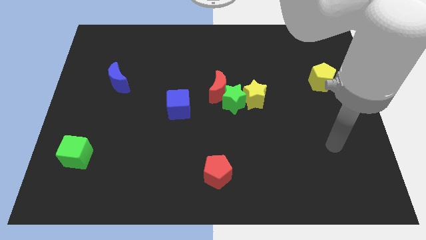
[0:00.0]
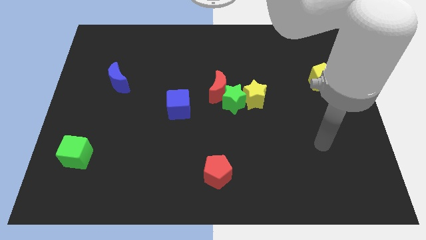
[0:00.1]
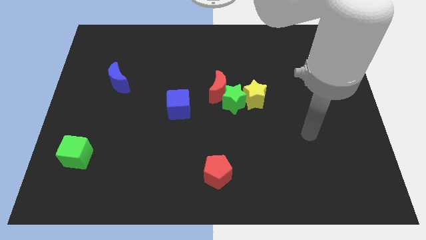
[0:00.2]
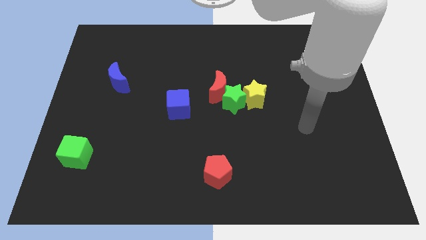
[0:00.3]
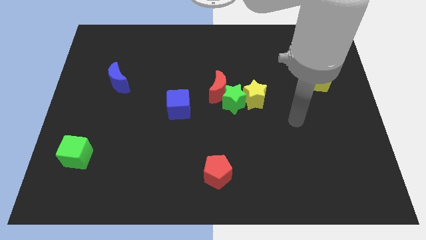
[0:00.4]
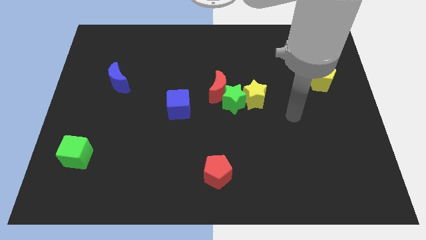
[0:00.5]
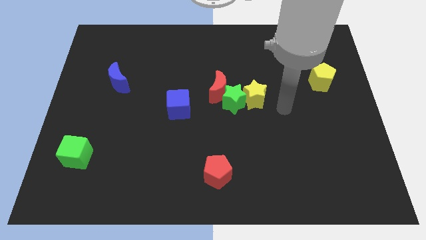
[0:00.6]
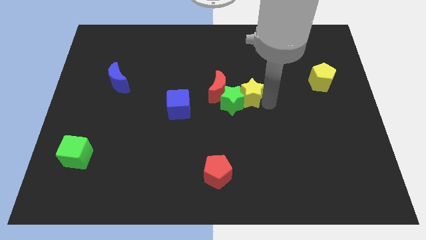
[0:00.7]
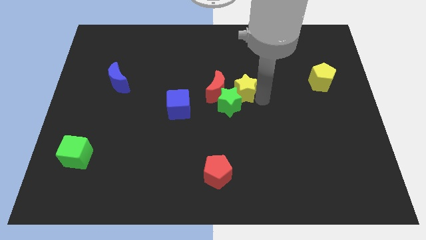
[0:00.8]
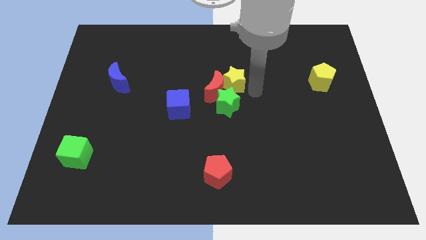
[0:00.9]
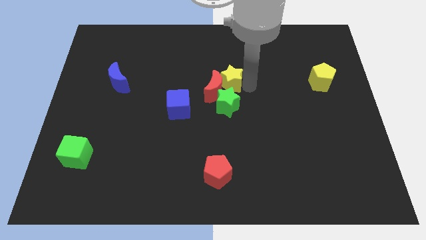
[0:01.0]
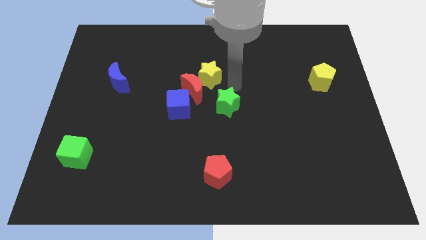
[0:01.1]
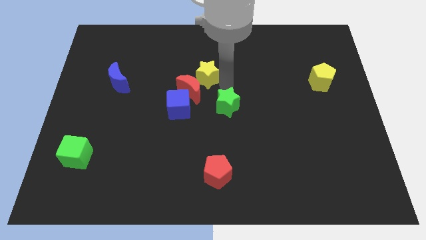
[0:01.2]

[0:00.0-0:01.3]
move the green star away from the yellow star and red moon

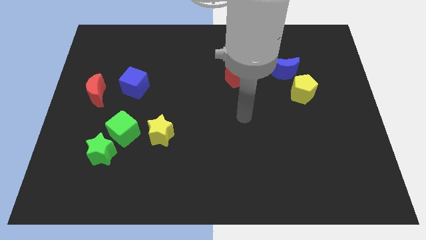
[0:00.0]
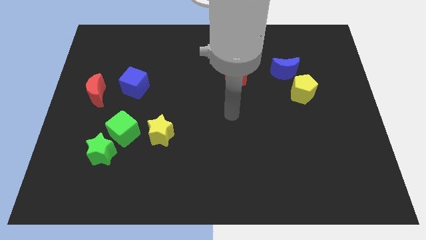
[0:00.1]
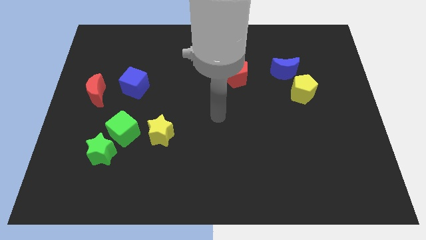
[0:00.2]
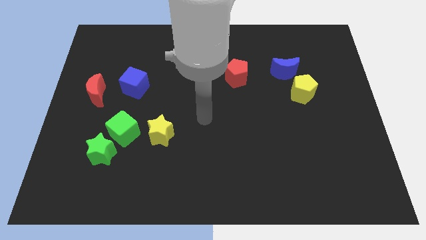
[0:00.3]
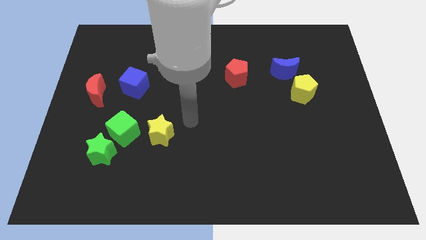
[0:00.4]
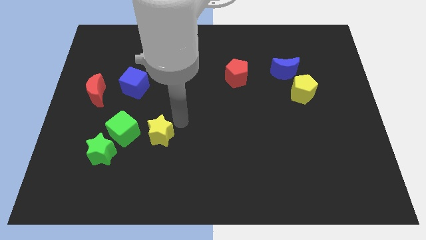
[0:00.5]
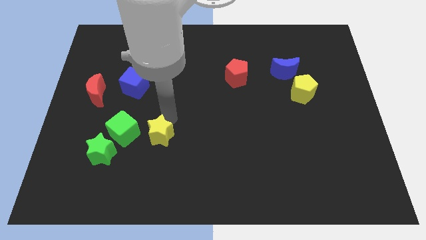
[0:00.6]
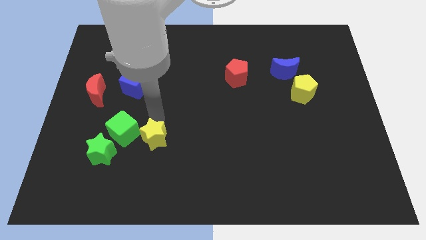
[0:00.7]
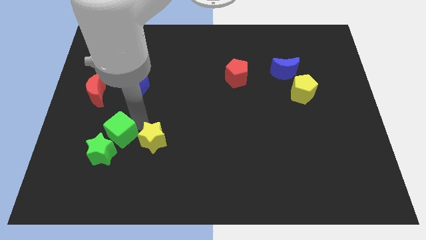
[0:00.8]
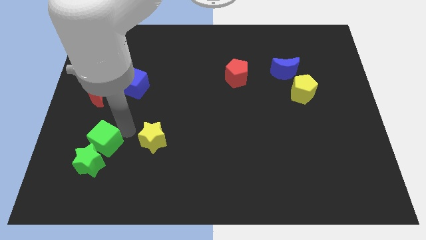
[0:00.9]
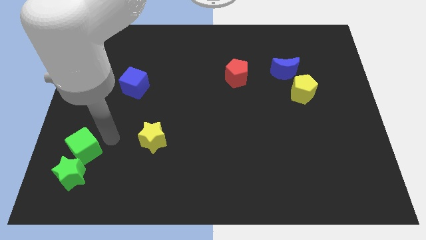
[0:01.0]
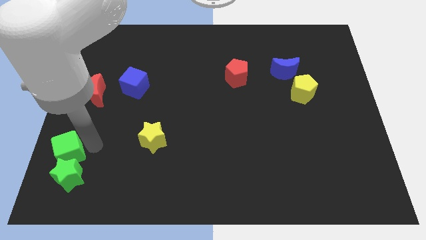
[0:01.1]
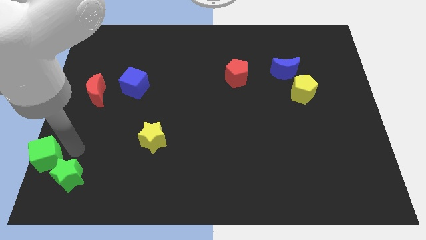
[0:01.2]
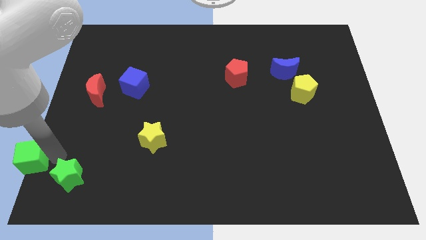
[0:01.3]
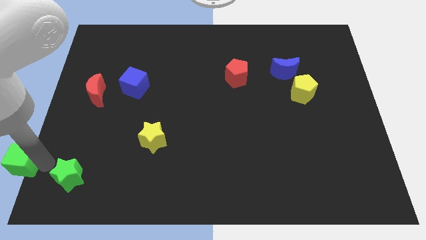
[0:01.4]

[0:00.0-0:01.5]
move the green star away from the green cube

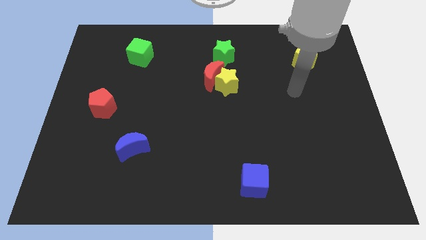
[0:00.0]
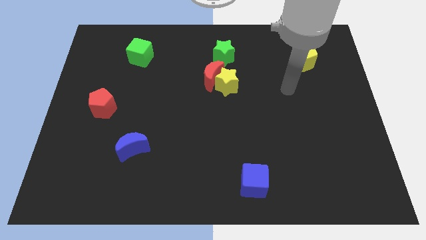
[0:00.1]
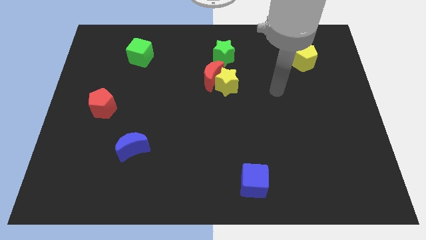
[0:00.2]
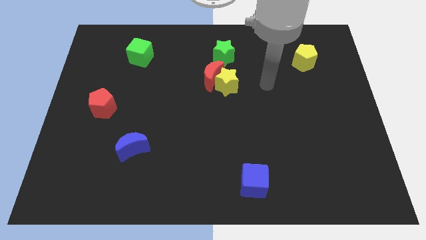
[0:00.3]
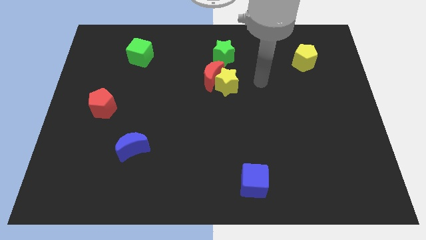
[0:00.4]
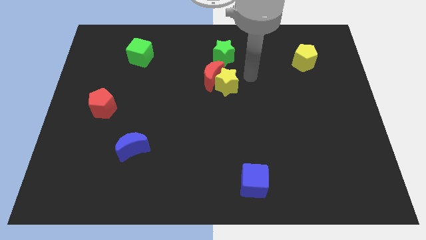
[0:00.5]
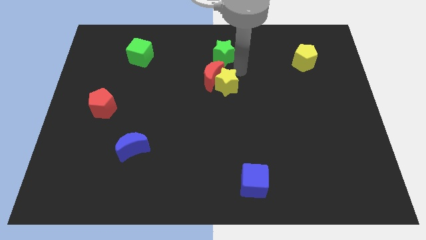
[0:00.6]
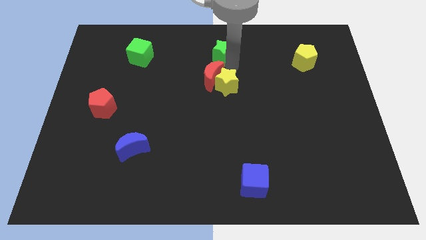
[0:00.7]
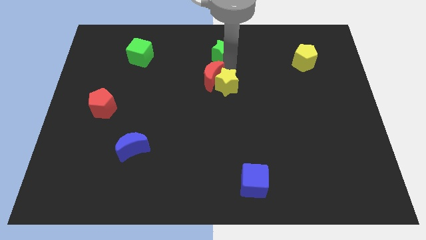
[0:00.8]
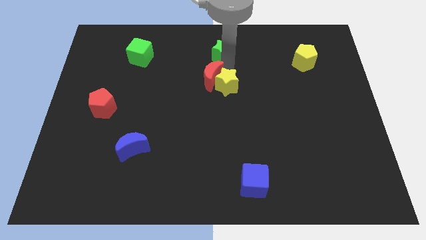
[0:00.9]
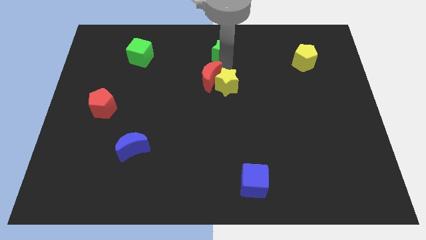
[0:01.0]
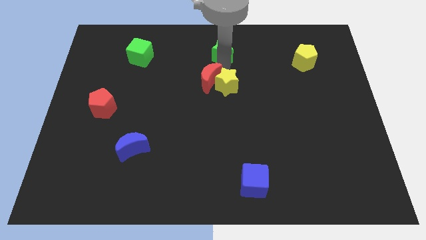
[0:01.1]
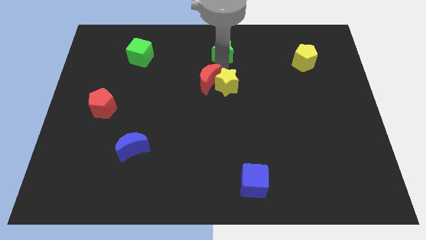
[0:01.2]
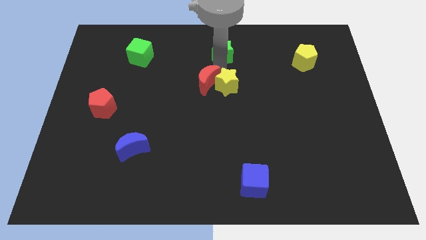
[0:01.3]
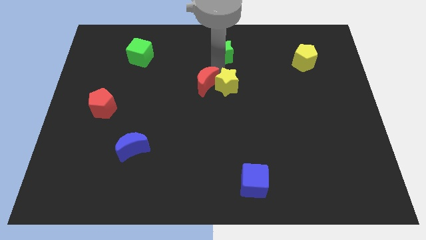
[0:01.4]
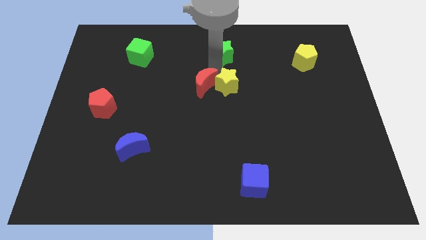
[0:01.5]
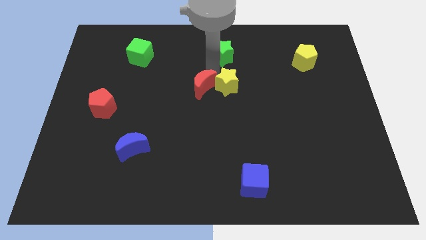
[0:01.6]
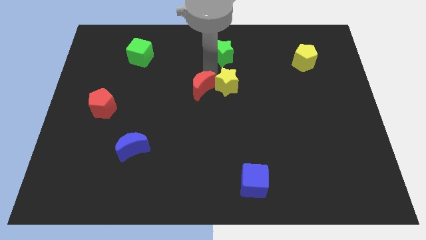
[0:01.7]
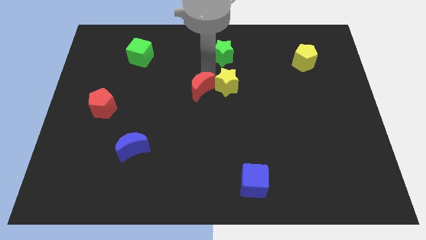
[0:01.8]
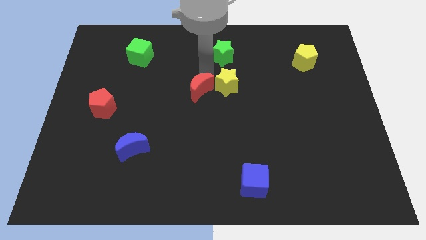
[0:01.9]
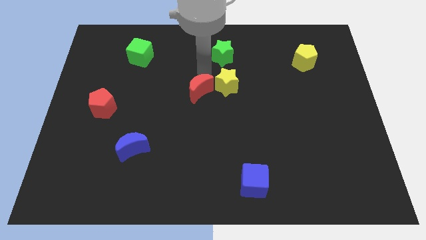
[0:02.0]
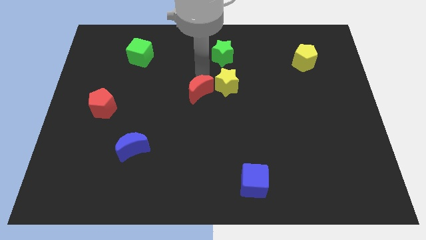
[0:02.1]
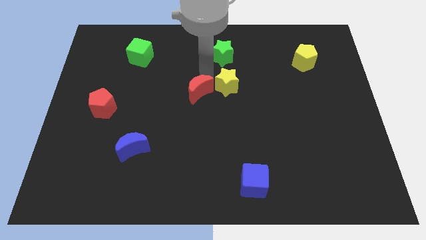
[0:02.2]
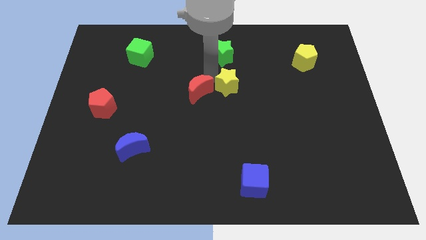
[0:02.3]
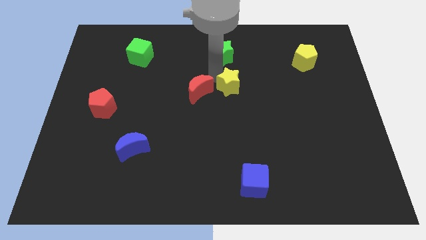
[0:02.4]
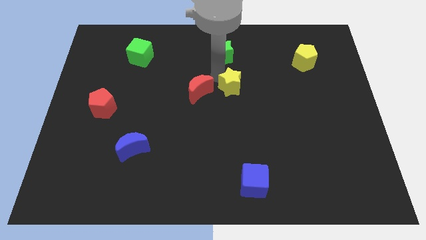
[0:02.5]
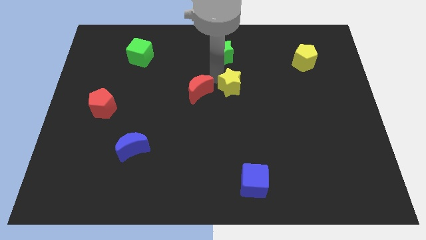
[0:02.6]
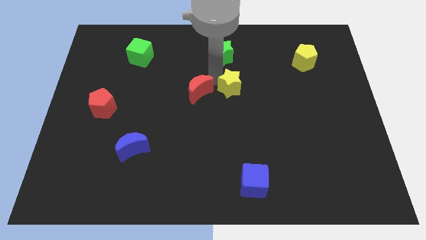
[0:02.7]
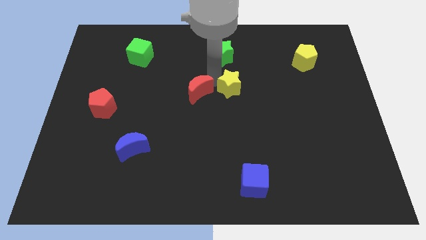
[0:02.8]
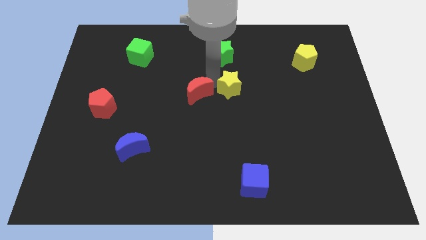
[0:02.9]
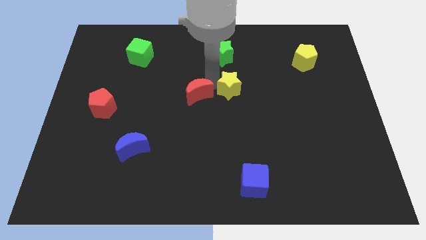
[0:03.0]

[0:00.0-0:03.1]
move the red moon away from the yellow star and green star

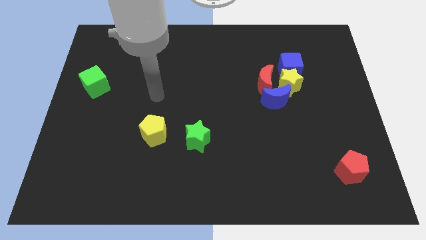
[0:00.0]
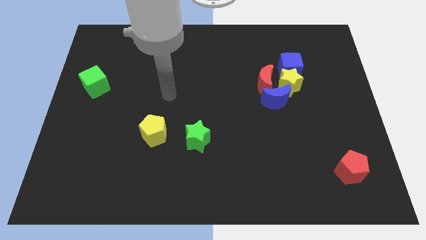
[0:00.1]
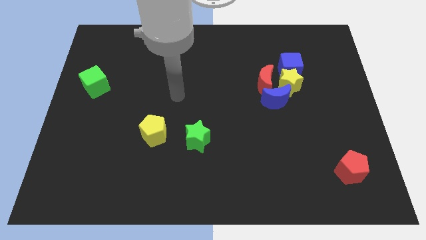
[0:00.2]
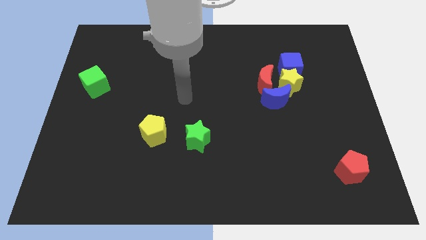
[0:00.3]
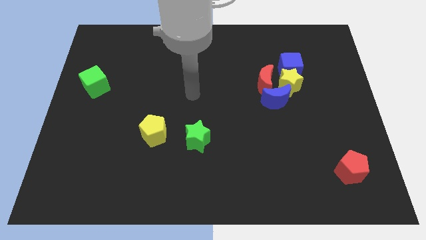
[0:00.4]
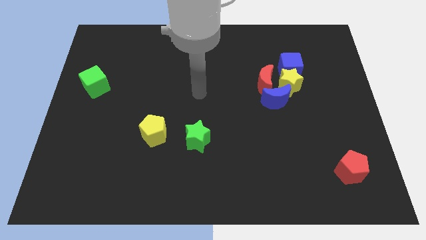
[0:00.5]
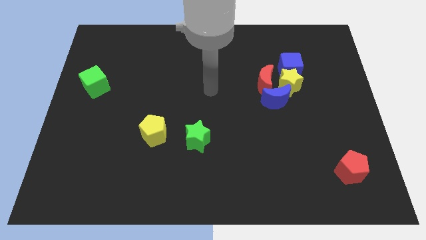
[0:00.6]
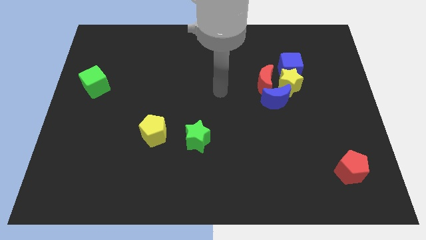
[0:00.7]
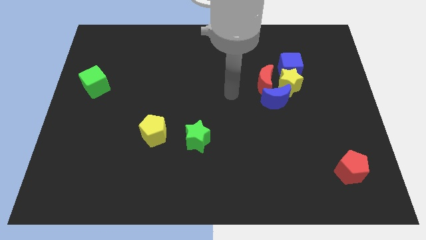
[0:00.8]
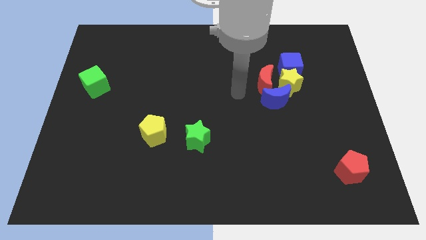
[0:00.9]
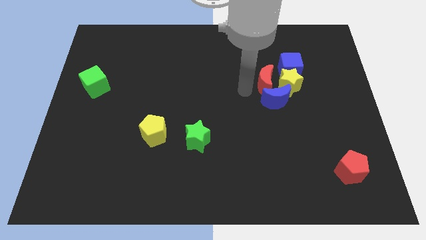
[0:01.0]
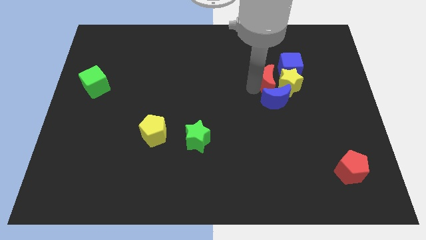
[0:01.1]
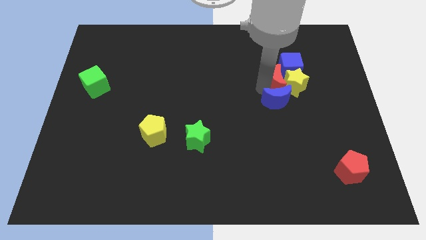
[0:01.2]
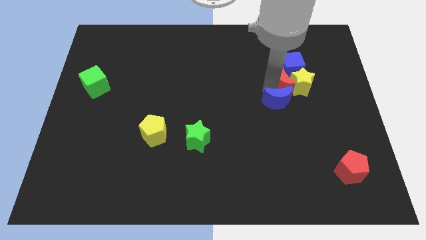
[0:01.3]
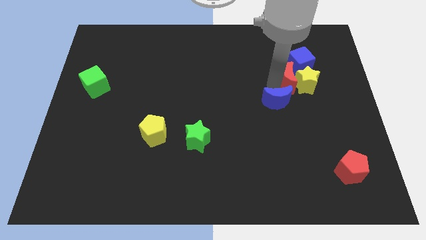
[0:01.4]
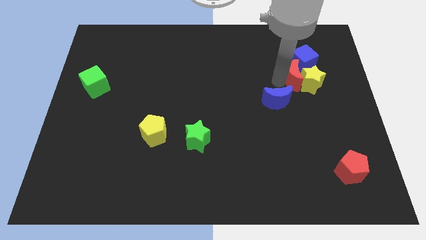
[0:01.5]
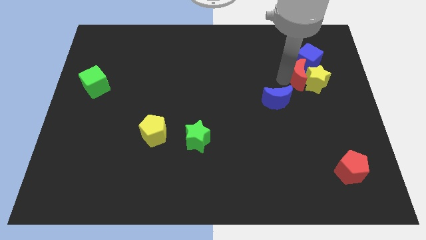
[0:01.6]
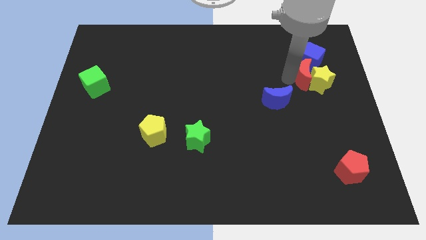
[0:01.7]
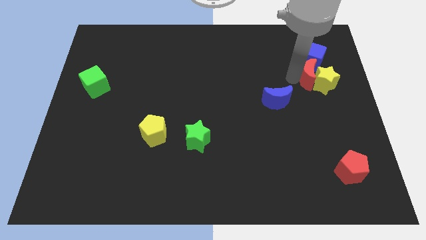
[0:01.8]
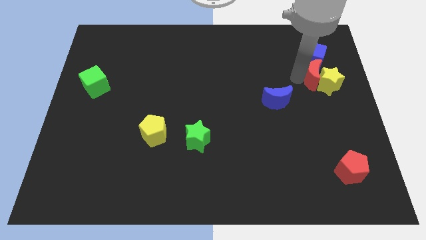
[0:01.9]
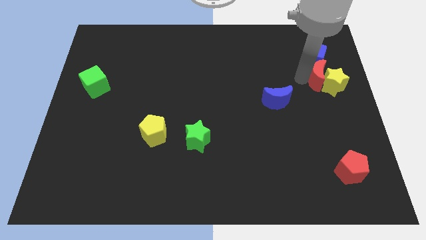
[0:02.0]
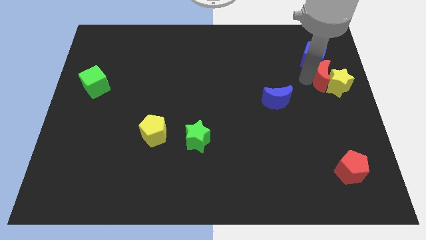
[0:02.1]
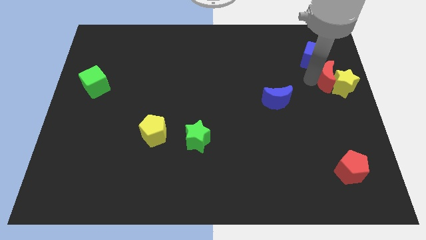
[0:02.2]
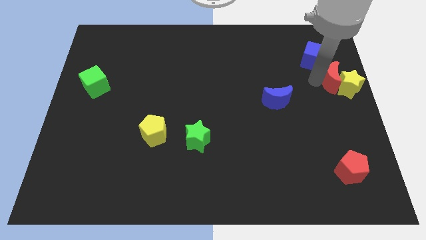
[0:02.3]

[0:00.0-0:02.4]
move the yellow star away from the blue cube, red moon, and blue moon

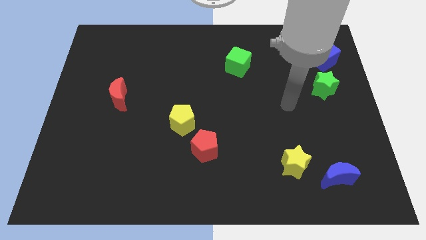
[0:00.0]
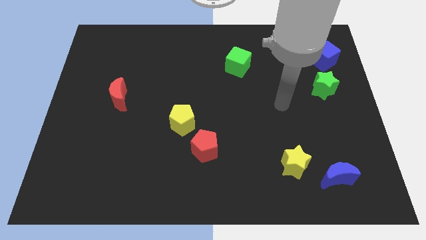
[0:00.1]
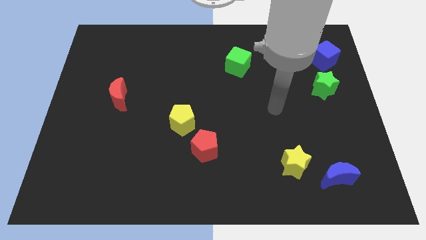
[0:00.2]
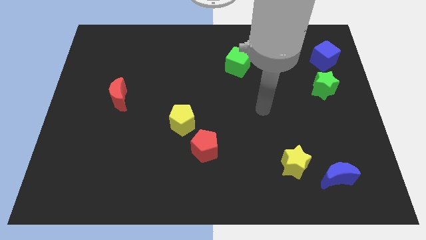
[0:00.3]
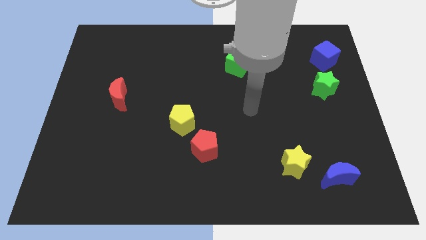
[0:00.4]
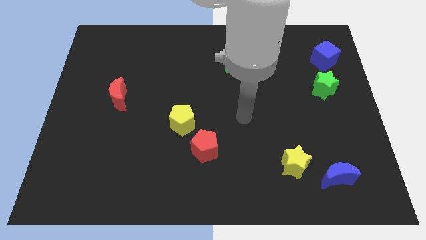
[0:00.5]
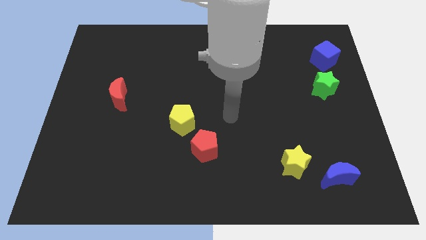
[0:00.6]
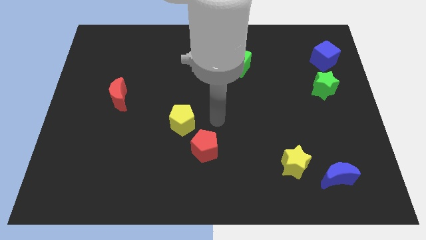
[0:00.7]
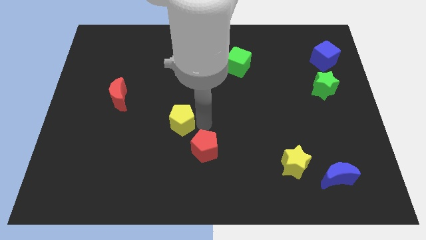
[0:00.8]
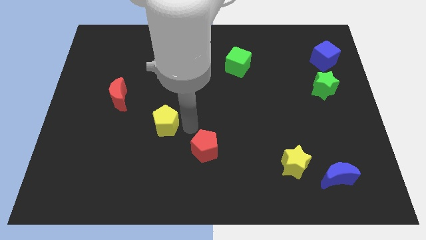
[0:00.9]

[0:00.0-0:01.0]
move the red pentagon away from the yellow pentagon
